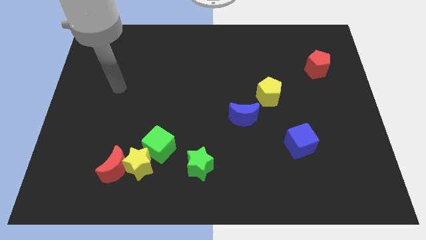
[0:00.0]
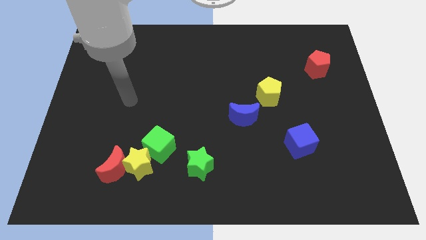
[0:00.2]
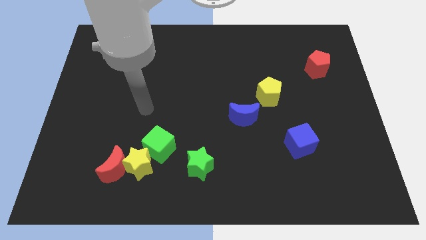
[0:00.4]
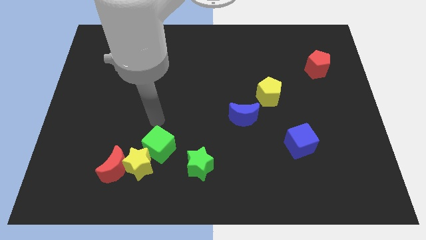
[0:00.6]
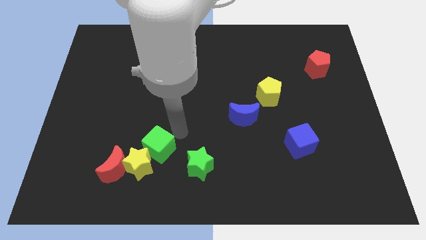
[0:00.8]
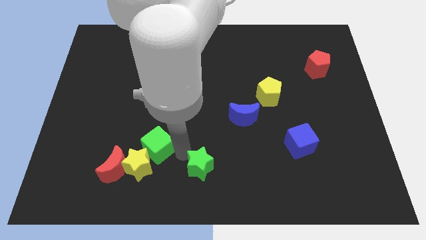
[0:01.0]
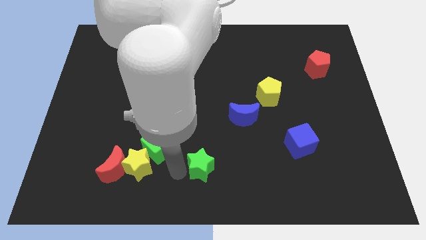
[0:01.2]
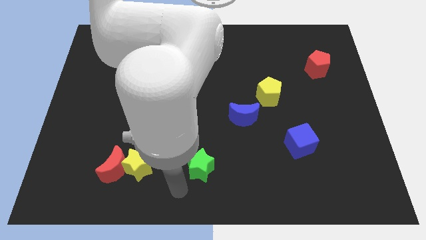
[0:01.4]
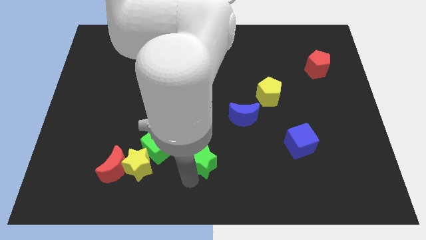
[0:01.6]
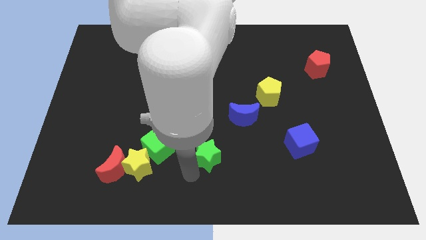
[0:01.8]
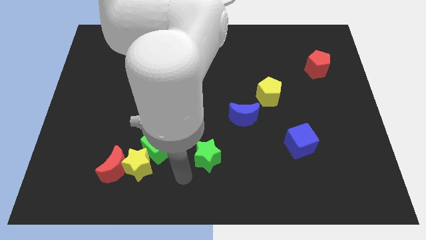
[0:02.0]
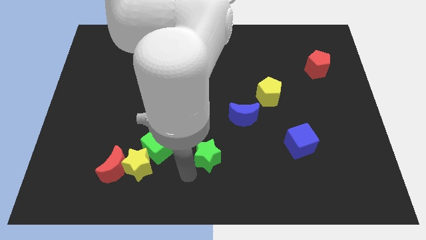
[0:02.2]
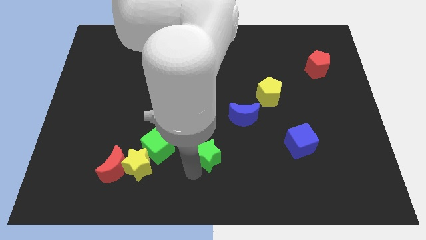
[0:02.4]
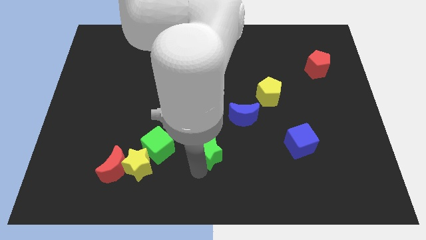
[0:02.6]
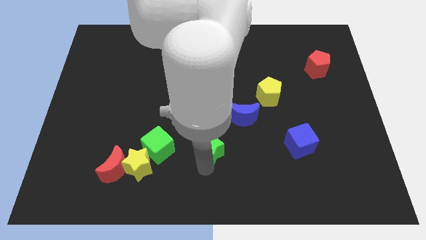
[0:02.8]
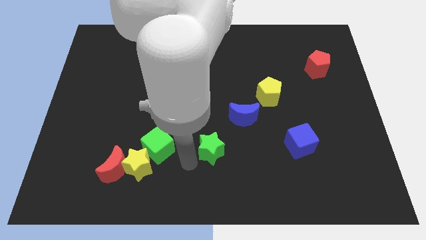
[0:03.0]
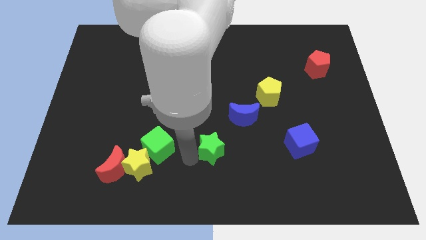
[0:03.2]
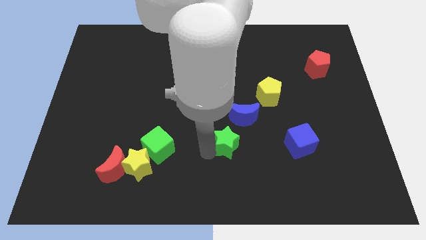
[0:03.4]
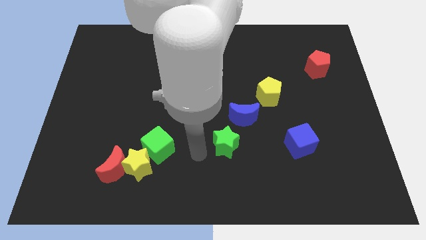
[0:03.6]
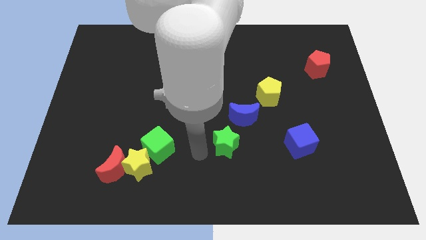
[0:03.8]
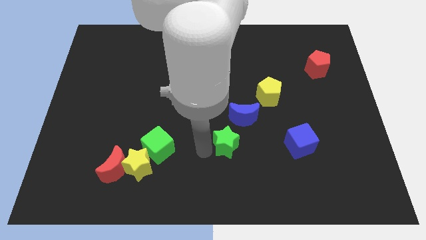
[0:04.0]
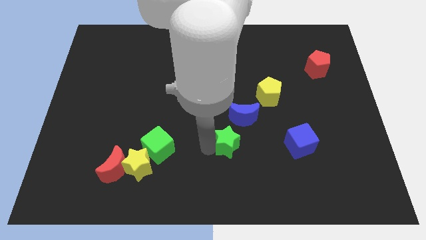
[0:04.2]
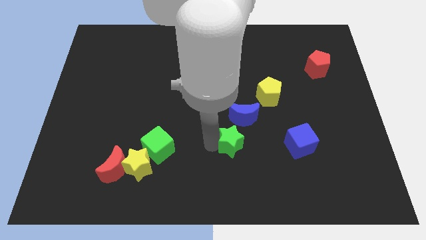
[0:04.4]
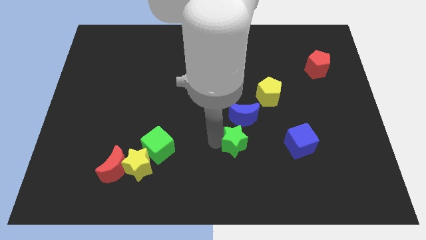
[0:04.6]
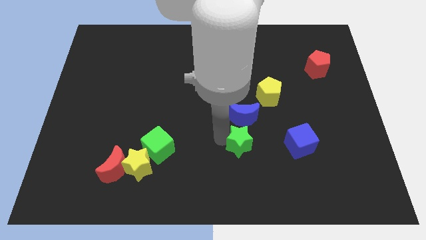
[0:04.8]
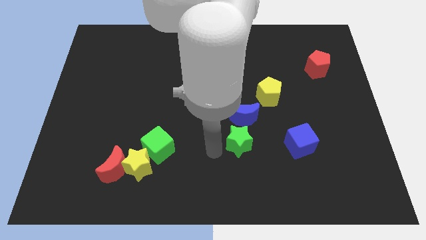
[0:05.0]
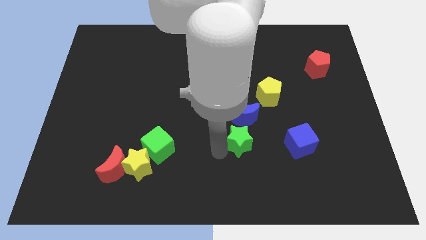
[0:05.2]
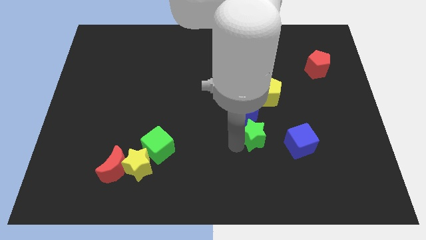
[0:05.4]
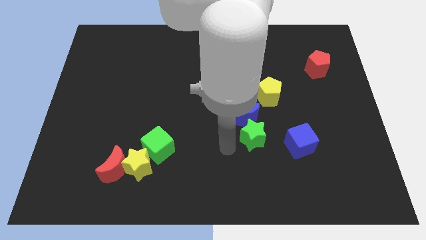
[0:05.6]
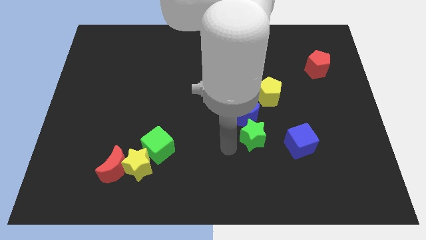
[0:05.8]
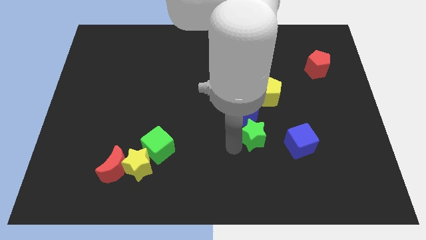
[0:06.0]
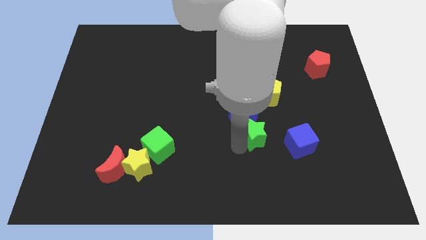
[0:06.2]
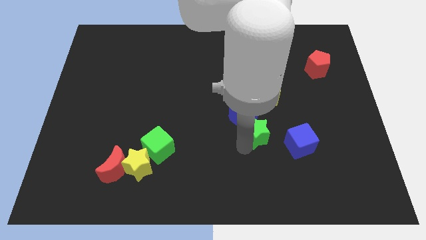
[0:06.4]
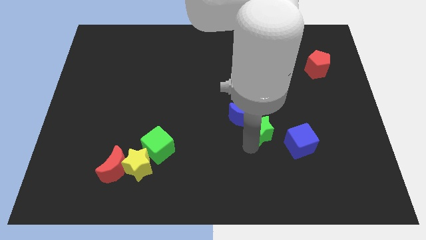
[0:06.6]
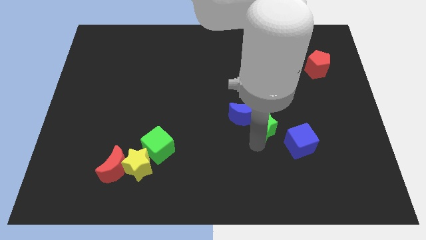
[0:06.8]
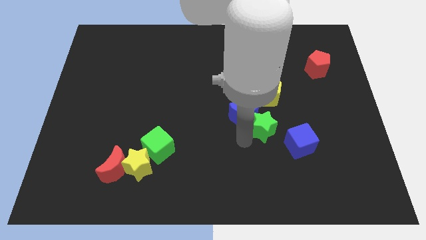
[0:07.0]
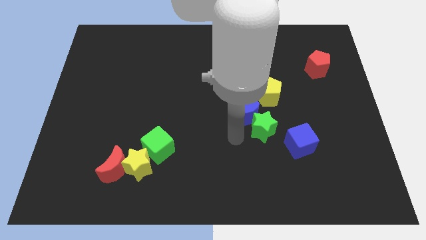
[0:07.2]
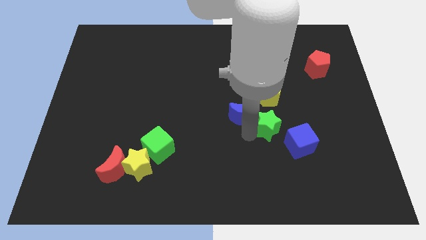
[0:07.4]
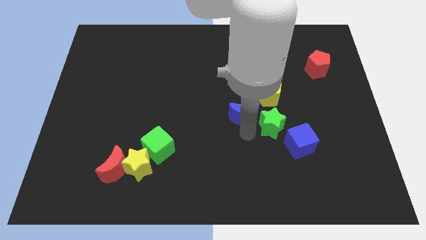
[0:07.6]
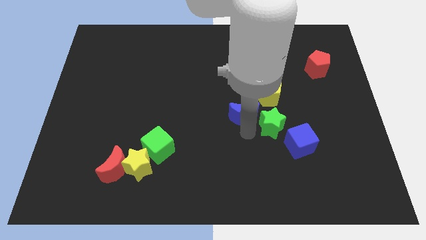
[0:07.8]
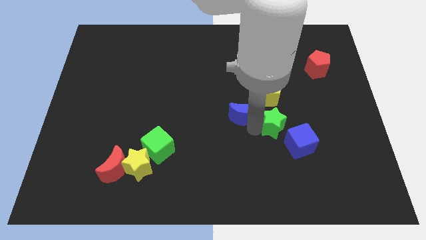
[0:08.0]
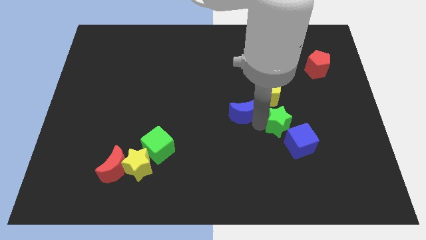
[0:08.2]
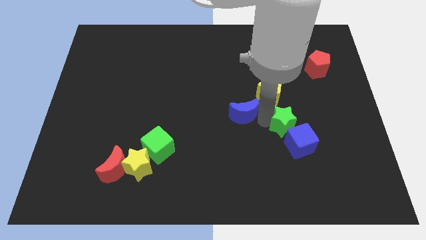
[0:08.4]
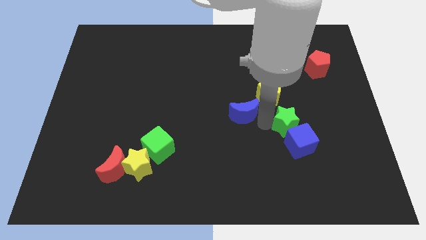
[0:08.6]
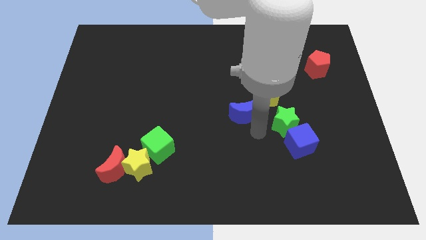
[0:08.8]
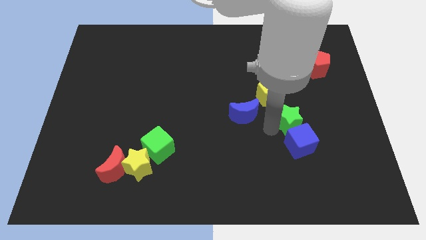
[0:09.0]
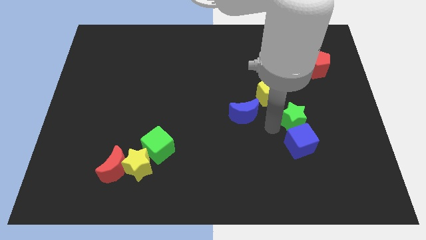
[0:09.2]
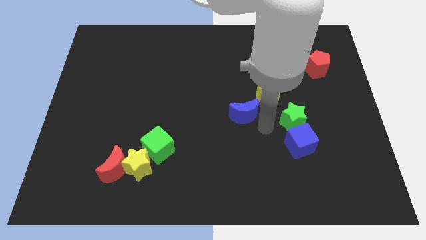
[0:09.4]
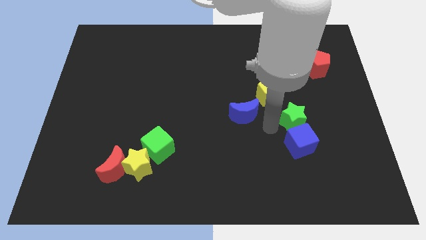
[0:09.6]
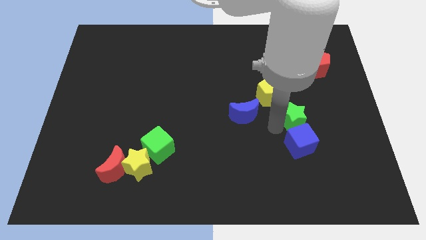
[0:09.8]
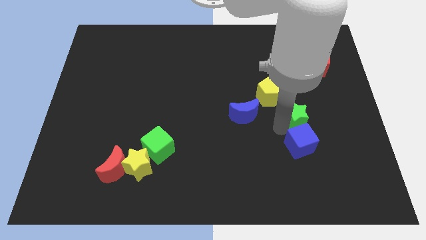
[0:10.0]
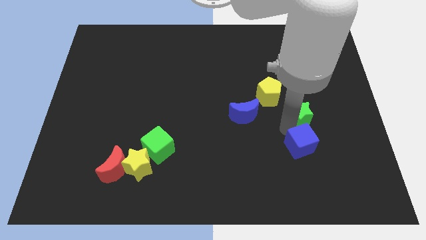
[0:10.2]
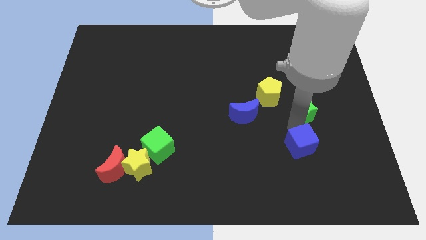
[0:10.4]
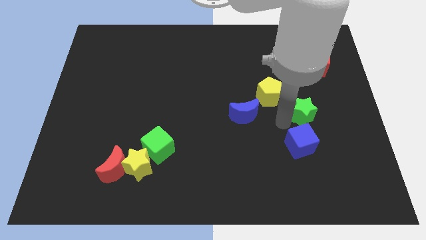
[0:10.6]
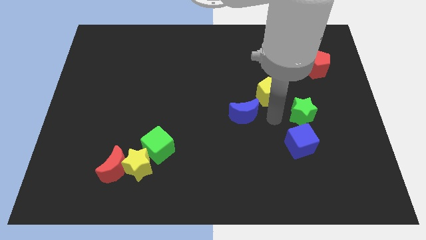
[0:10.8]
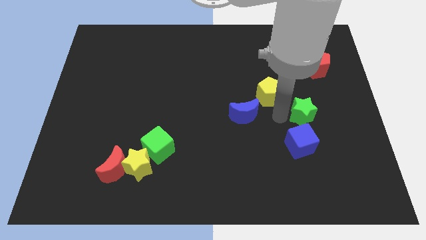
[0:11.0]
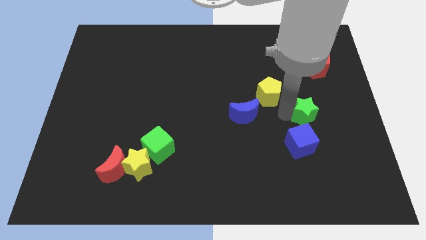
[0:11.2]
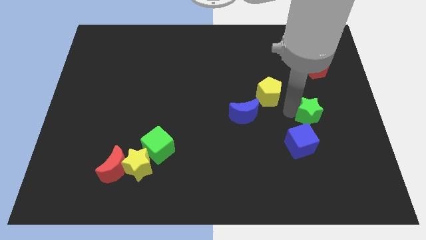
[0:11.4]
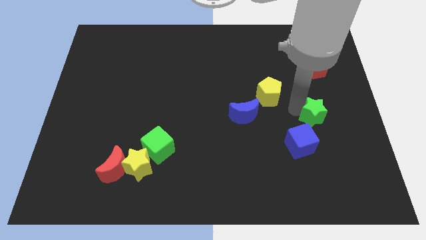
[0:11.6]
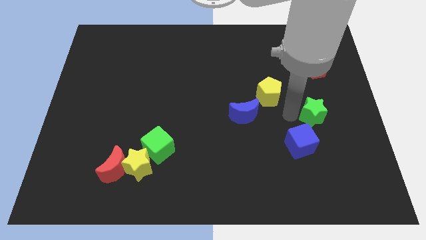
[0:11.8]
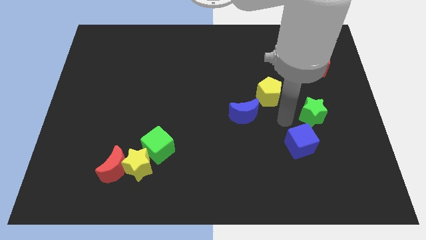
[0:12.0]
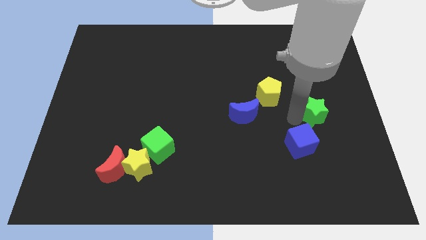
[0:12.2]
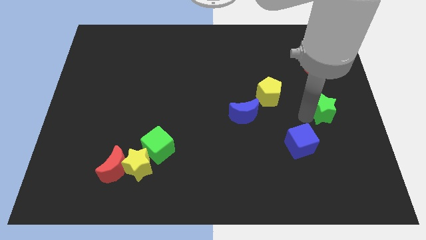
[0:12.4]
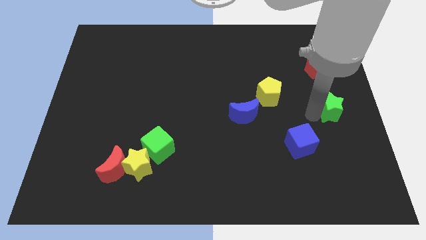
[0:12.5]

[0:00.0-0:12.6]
push the green star to the right side
